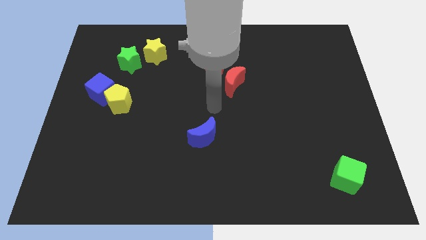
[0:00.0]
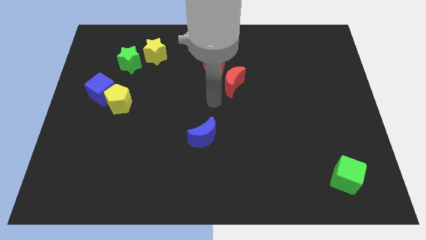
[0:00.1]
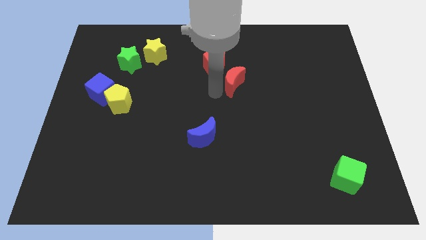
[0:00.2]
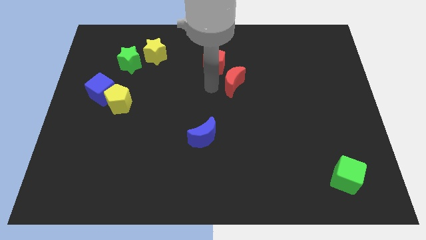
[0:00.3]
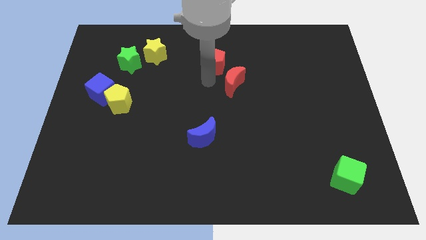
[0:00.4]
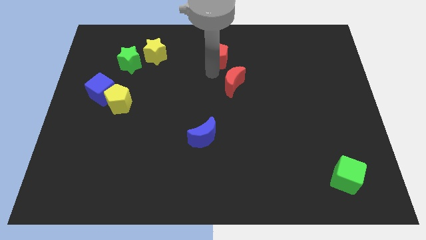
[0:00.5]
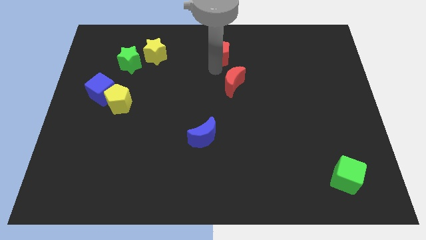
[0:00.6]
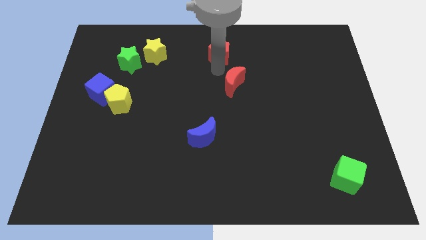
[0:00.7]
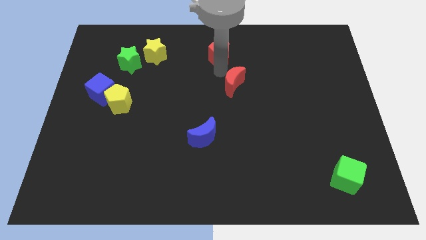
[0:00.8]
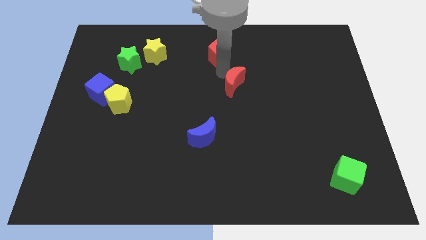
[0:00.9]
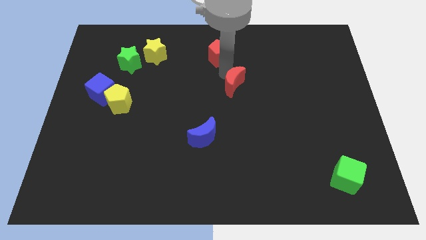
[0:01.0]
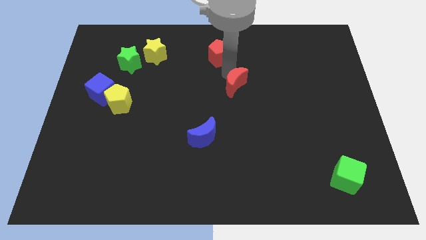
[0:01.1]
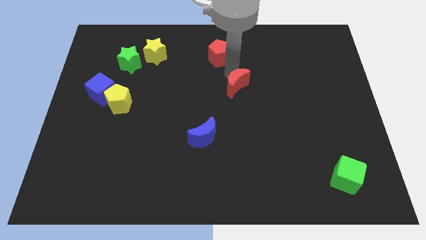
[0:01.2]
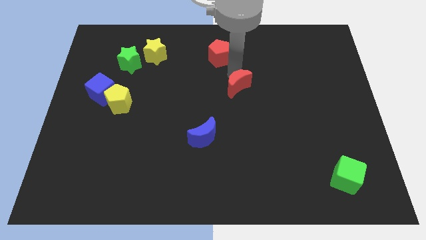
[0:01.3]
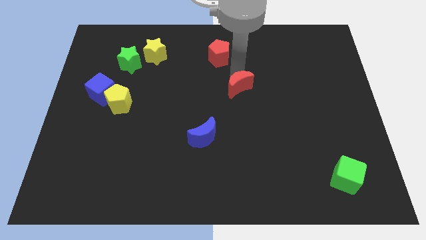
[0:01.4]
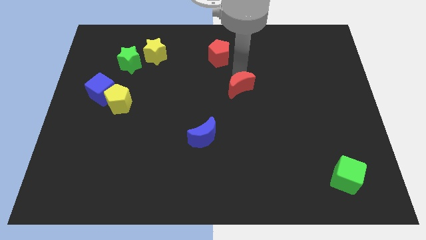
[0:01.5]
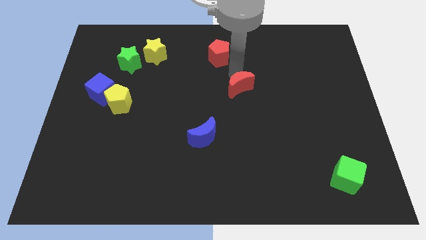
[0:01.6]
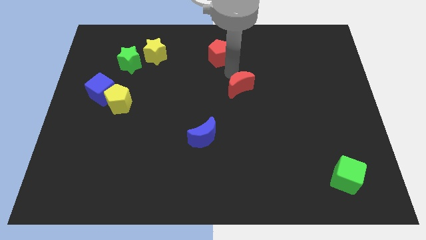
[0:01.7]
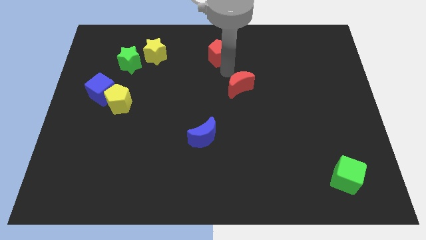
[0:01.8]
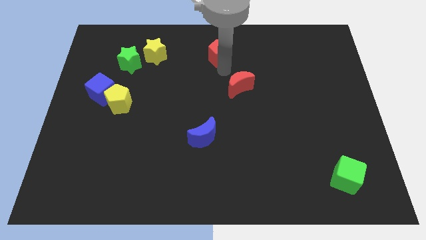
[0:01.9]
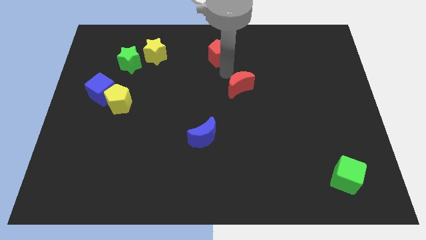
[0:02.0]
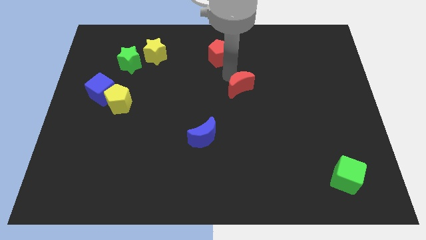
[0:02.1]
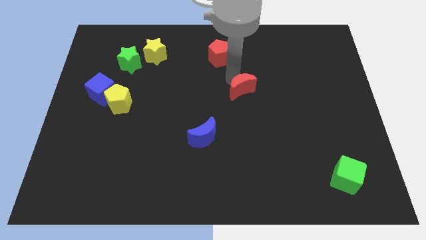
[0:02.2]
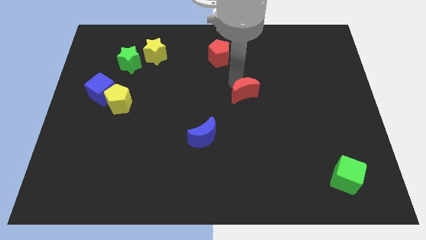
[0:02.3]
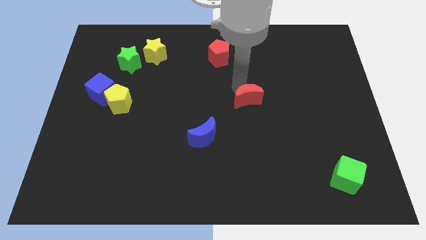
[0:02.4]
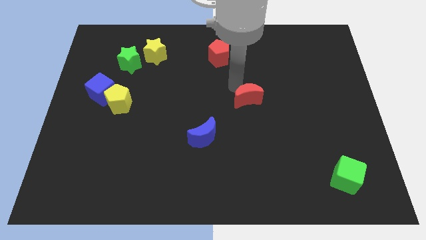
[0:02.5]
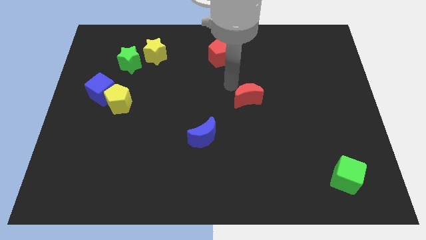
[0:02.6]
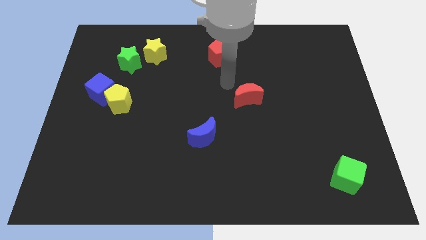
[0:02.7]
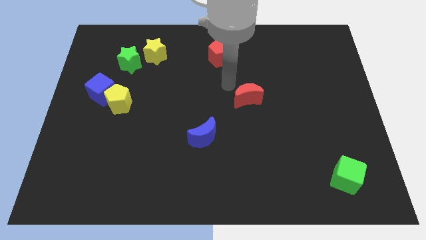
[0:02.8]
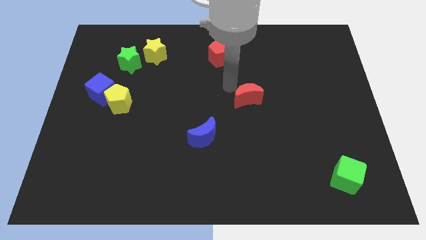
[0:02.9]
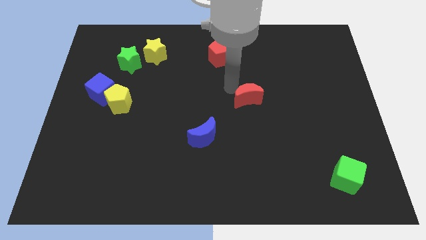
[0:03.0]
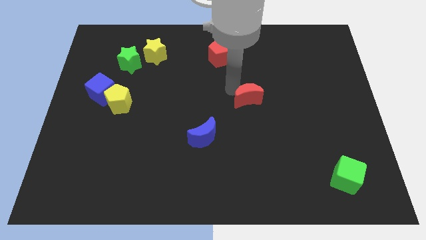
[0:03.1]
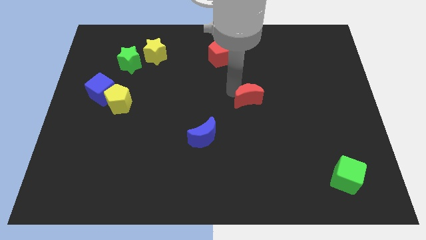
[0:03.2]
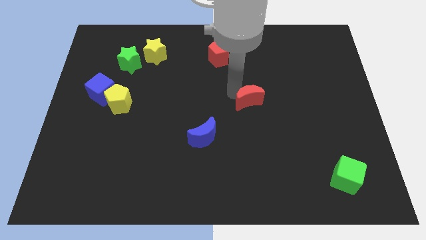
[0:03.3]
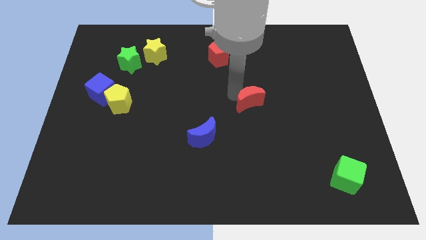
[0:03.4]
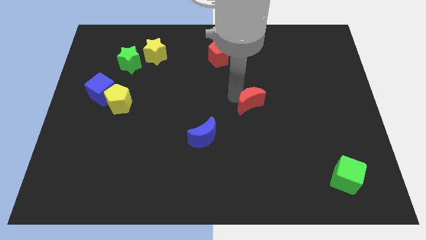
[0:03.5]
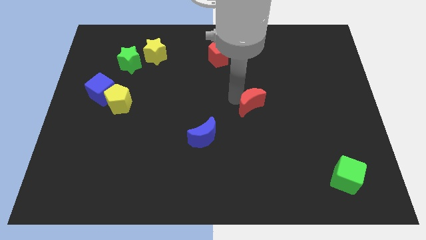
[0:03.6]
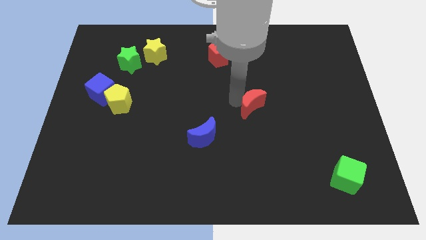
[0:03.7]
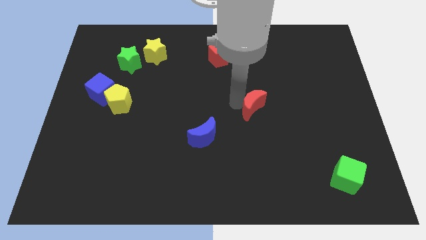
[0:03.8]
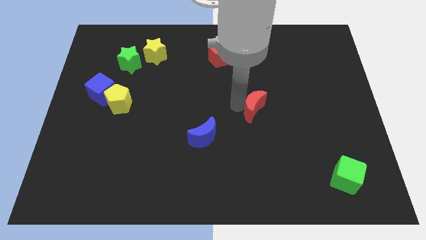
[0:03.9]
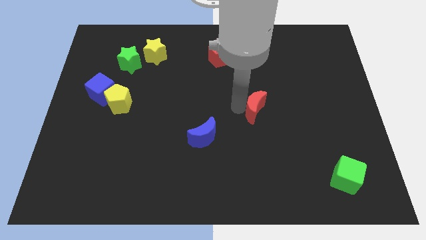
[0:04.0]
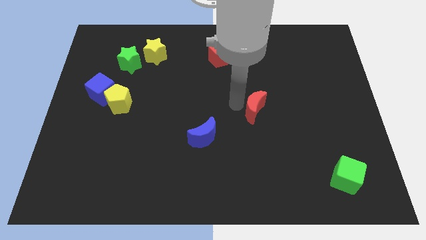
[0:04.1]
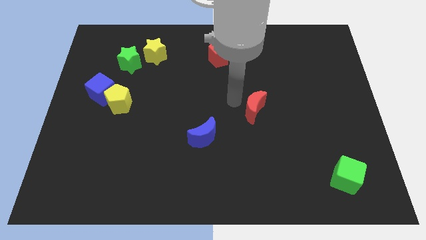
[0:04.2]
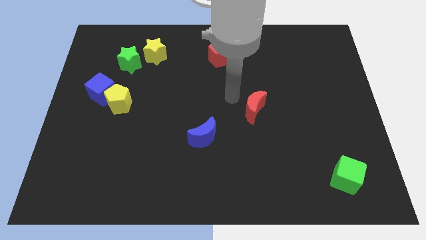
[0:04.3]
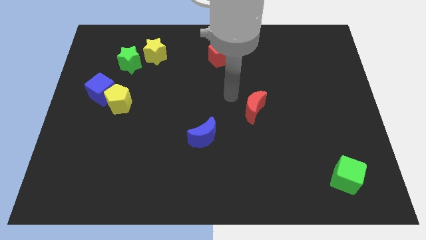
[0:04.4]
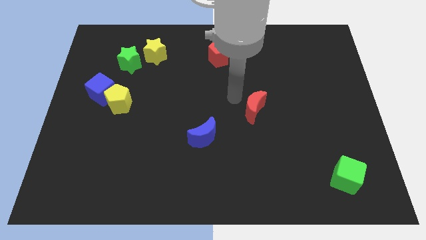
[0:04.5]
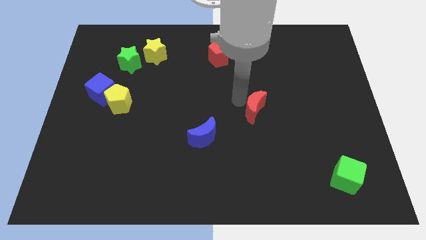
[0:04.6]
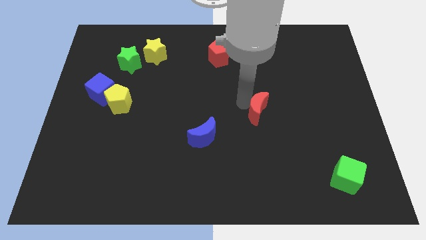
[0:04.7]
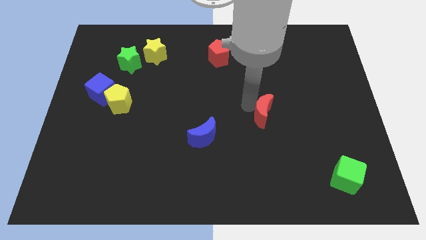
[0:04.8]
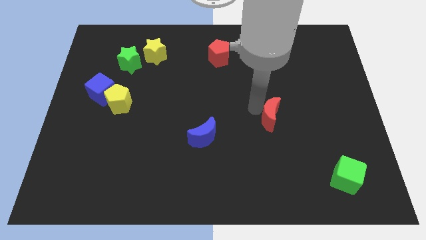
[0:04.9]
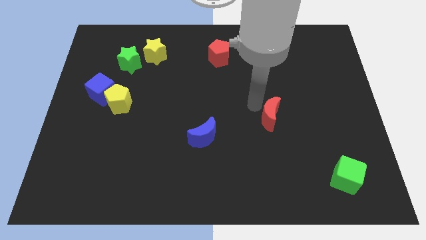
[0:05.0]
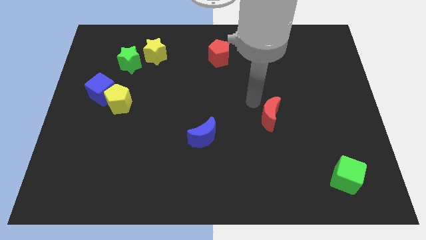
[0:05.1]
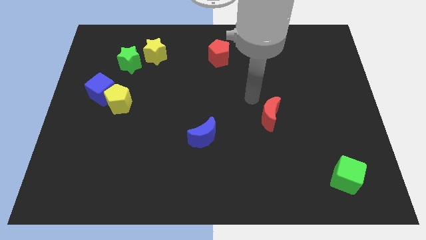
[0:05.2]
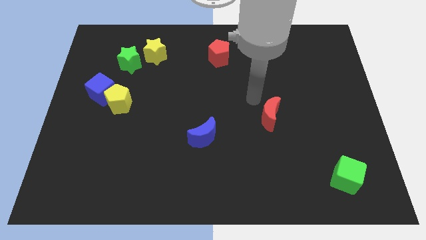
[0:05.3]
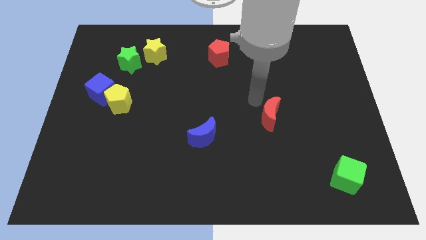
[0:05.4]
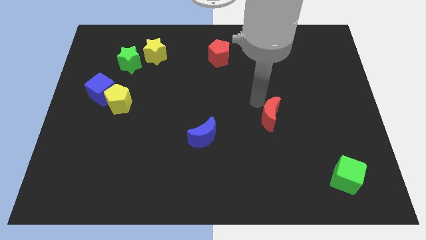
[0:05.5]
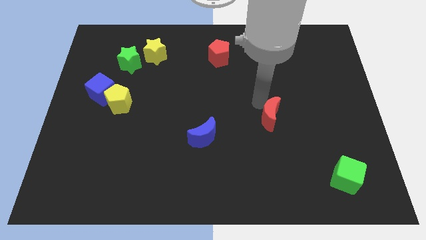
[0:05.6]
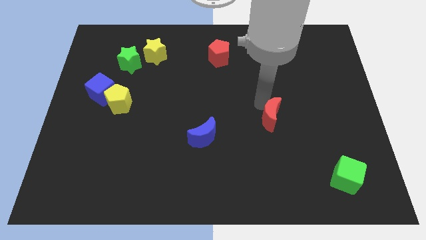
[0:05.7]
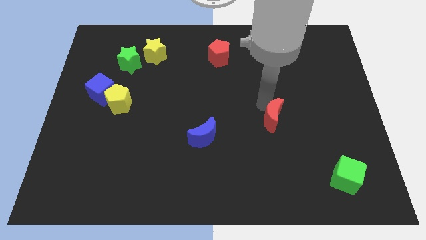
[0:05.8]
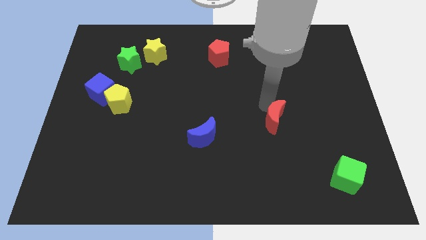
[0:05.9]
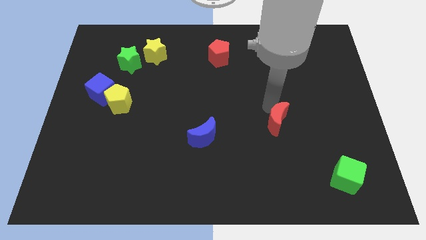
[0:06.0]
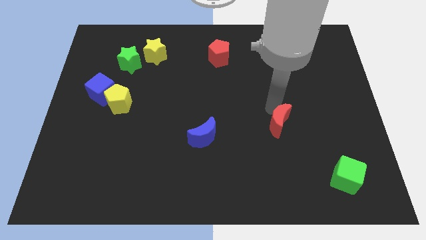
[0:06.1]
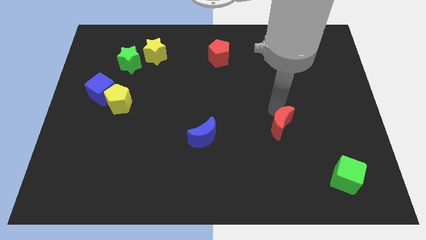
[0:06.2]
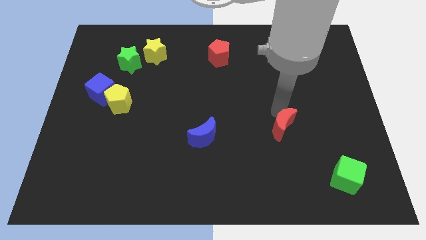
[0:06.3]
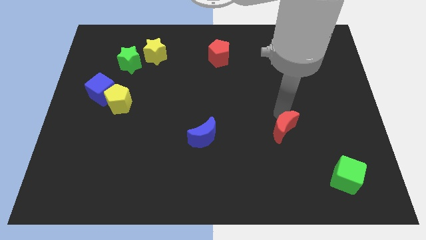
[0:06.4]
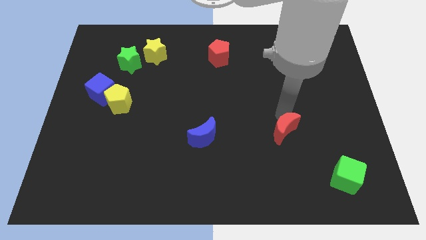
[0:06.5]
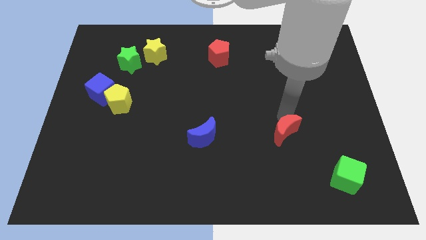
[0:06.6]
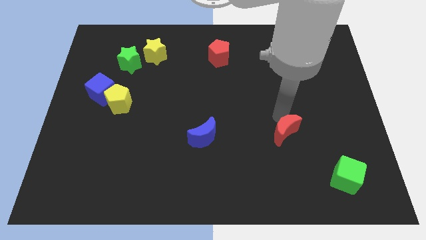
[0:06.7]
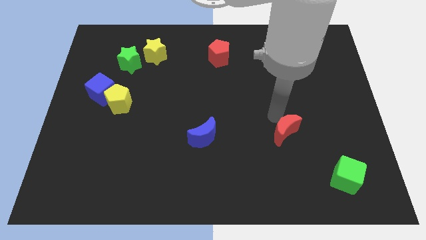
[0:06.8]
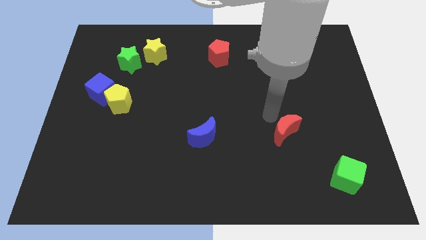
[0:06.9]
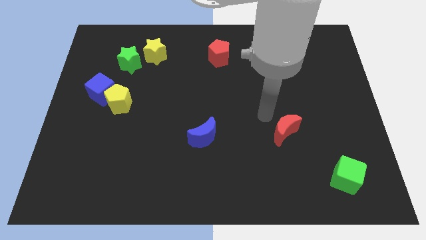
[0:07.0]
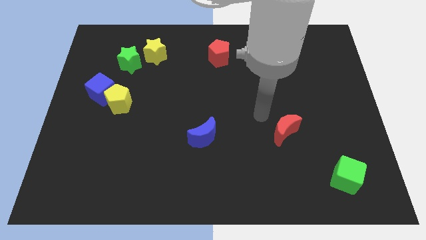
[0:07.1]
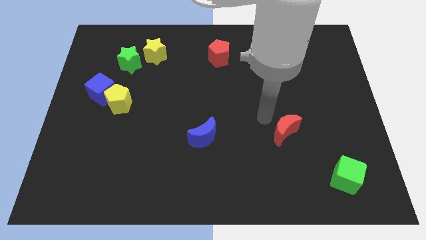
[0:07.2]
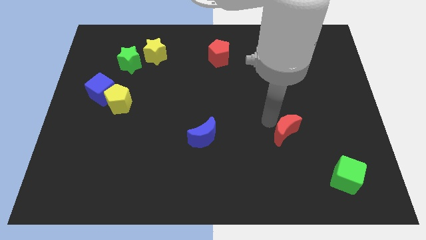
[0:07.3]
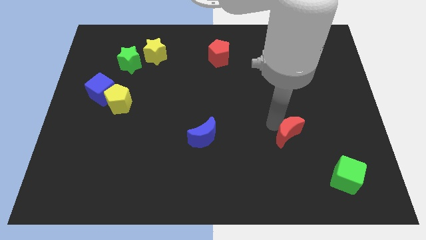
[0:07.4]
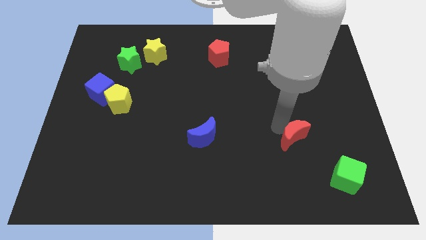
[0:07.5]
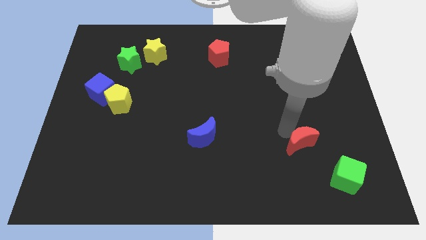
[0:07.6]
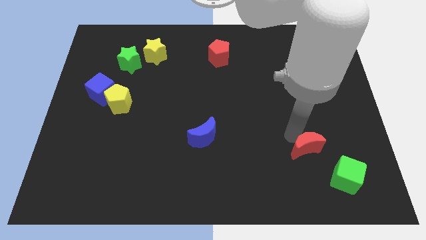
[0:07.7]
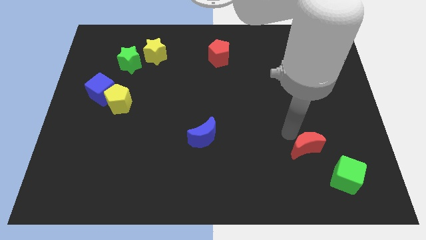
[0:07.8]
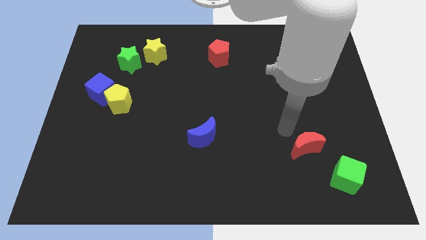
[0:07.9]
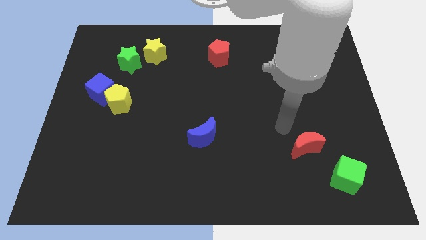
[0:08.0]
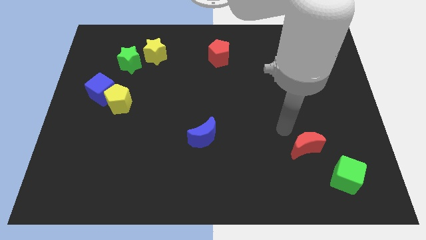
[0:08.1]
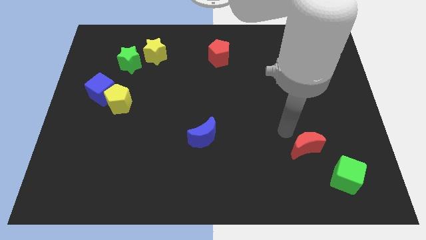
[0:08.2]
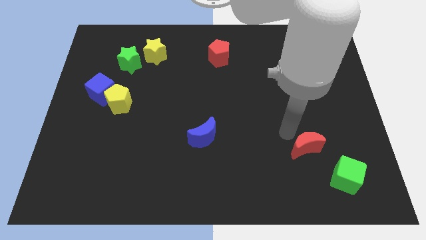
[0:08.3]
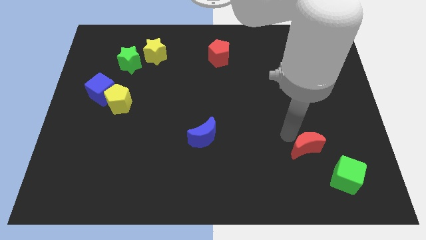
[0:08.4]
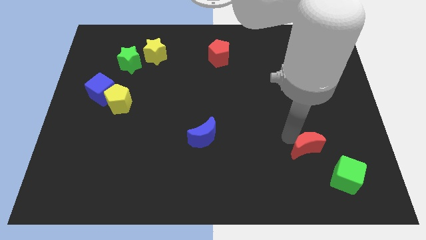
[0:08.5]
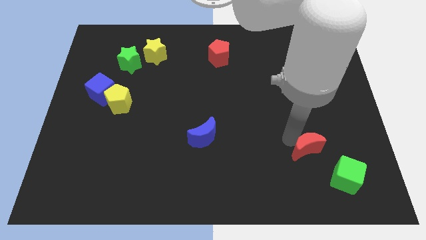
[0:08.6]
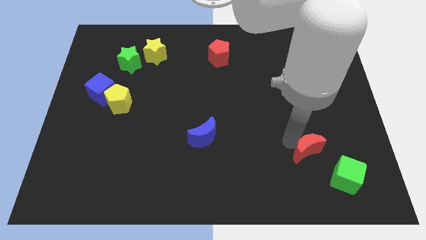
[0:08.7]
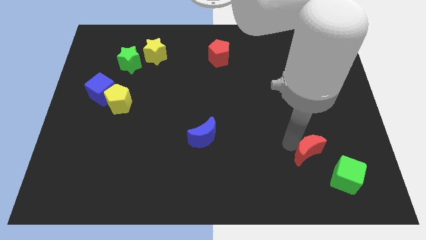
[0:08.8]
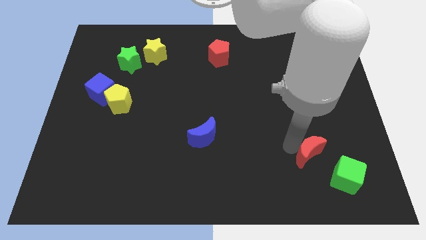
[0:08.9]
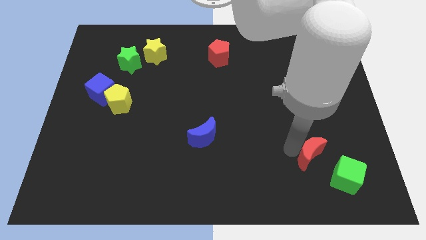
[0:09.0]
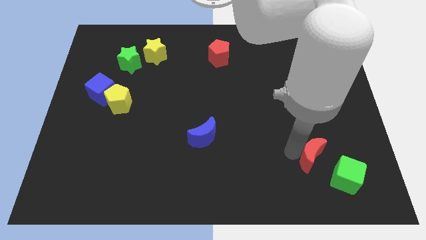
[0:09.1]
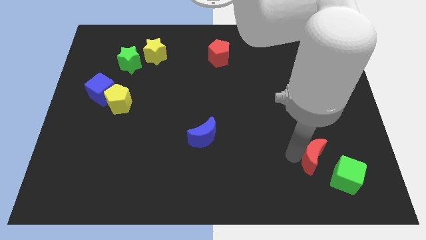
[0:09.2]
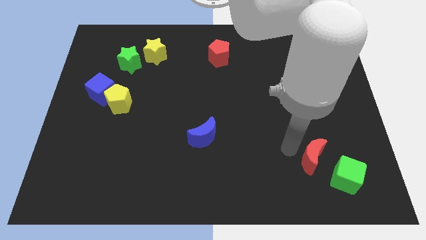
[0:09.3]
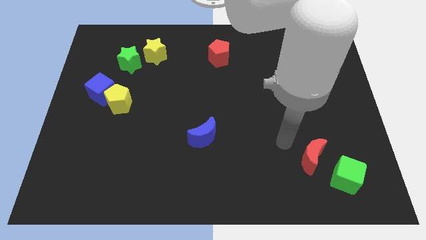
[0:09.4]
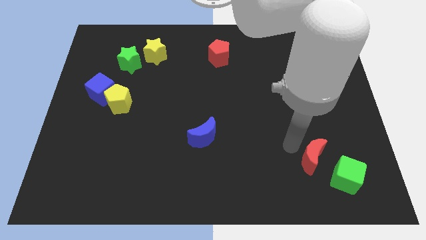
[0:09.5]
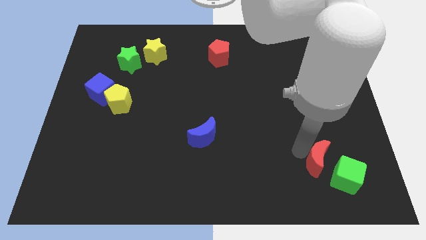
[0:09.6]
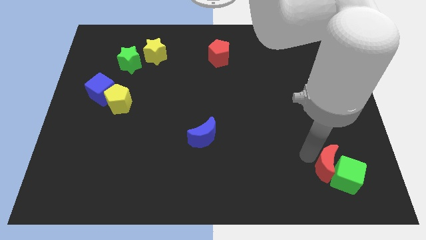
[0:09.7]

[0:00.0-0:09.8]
push the red moon close to the green cube
